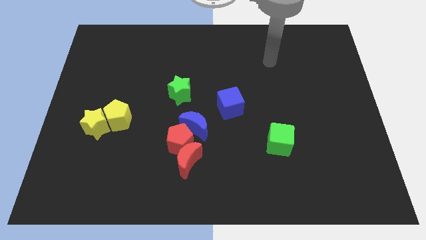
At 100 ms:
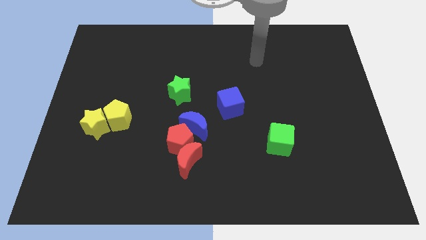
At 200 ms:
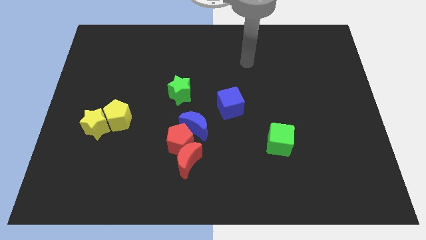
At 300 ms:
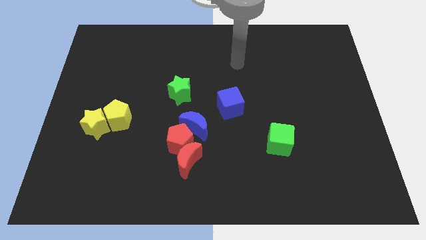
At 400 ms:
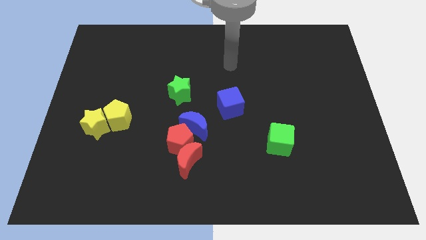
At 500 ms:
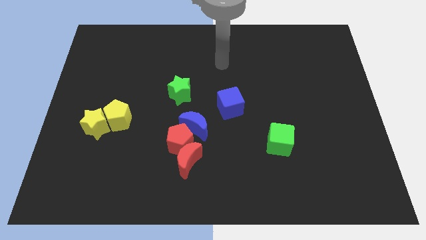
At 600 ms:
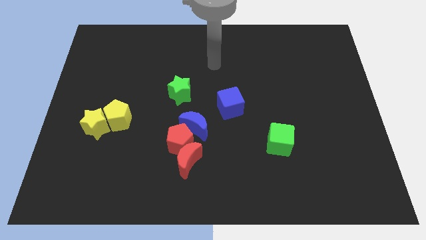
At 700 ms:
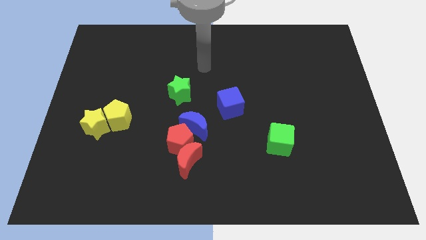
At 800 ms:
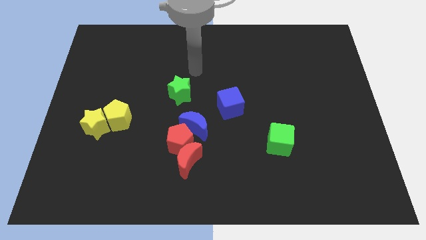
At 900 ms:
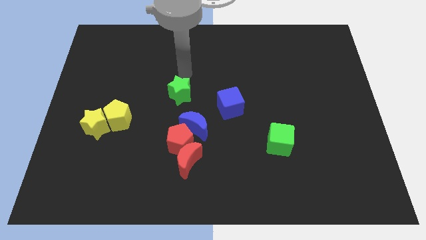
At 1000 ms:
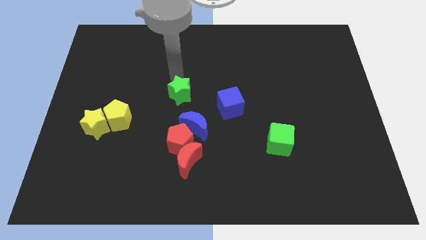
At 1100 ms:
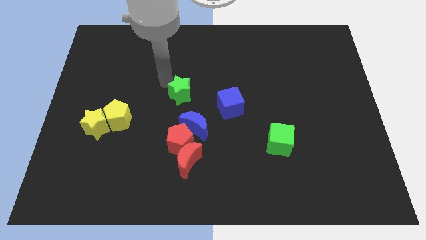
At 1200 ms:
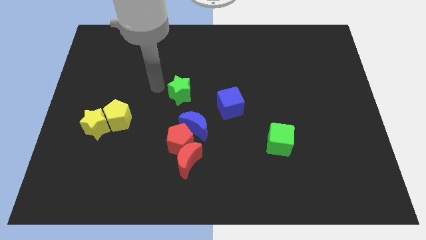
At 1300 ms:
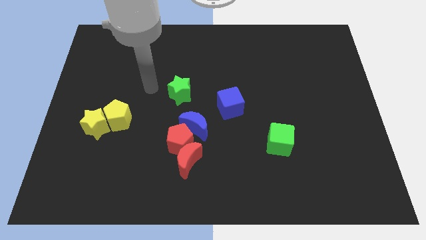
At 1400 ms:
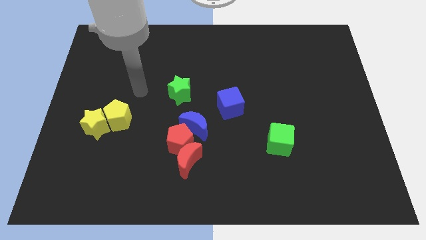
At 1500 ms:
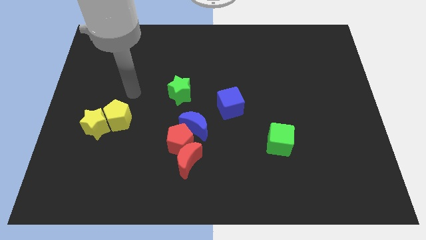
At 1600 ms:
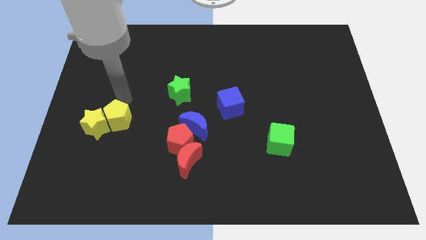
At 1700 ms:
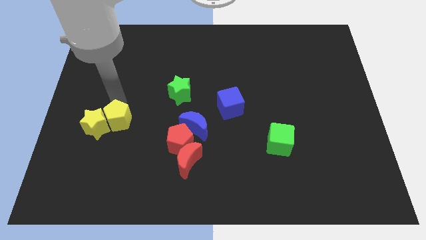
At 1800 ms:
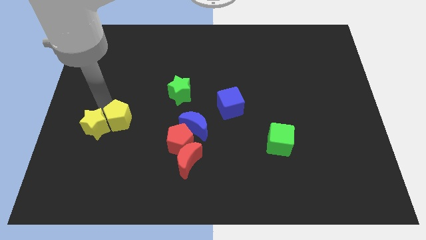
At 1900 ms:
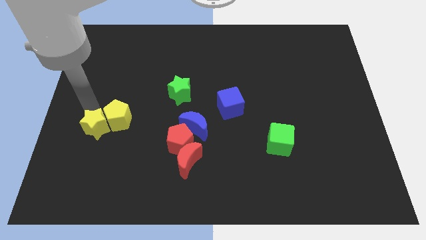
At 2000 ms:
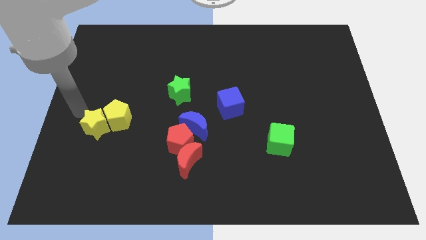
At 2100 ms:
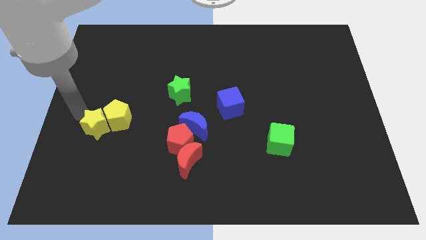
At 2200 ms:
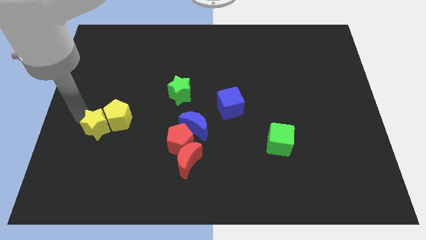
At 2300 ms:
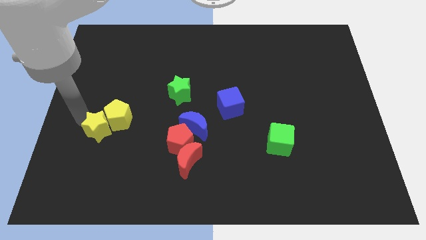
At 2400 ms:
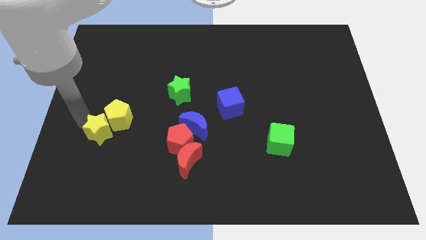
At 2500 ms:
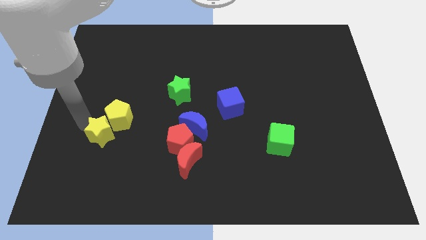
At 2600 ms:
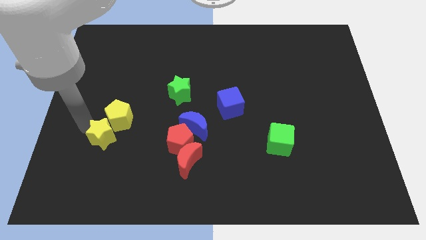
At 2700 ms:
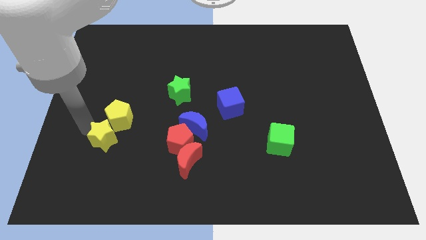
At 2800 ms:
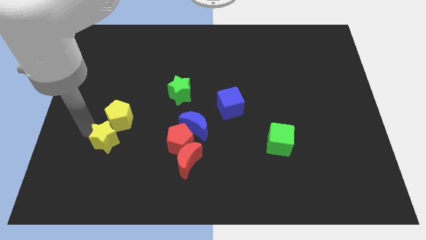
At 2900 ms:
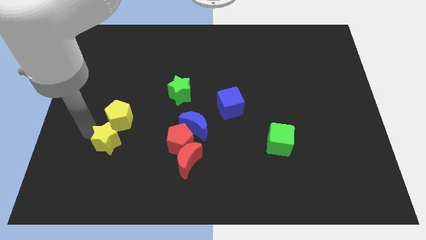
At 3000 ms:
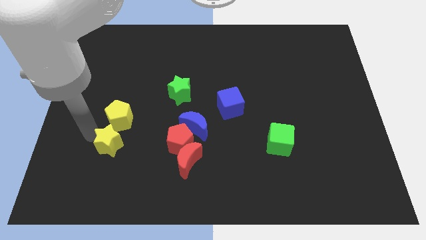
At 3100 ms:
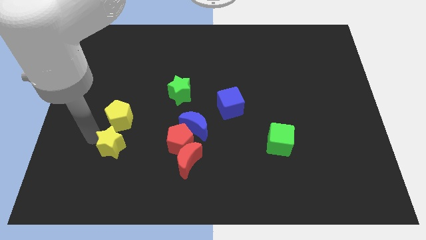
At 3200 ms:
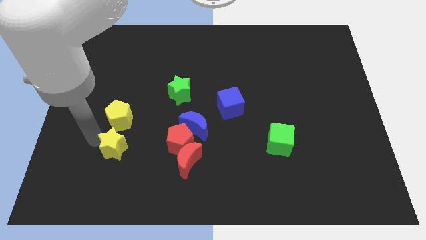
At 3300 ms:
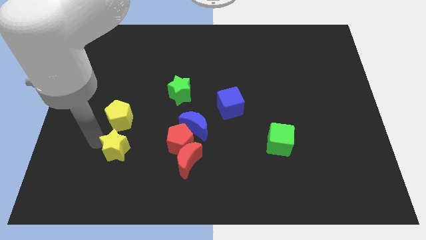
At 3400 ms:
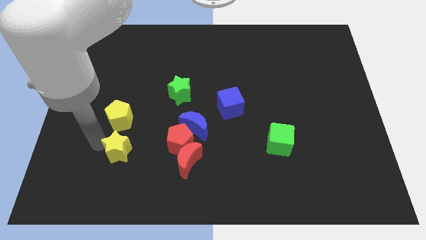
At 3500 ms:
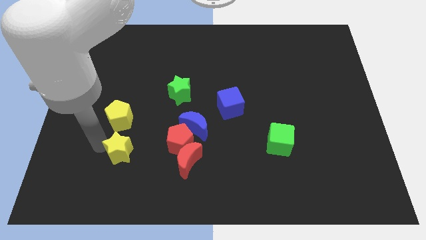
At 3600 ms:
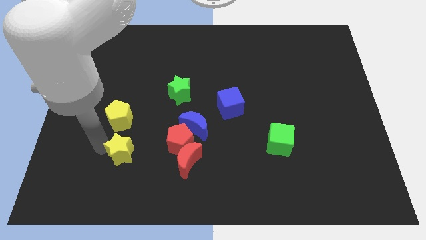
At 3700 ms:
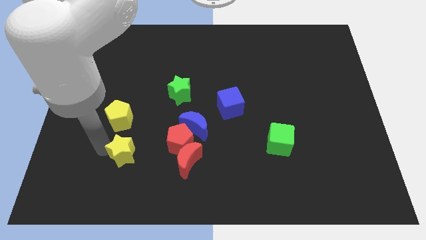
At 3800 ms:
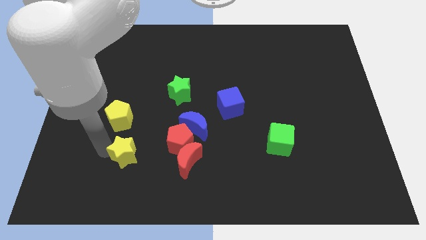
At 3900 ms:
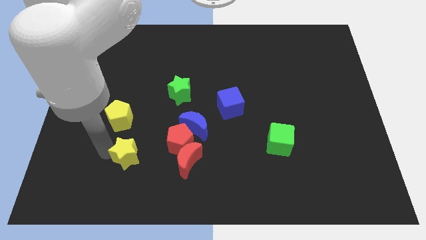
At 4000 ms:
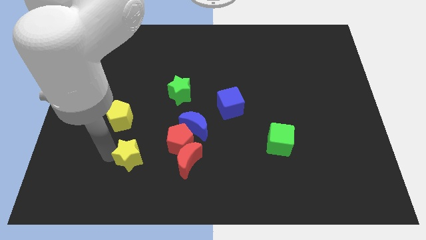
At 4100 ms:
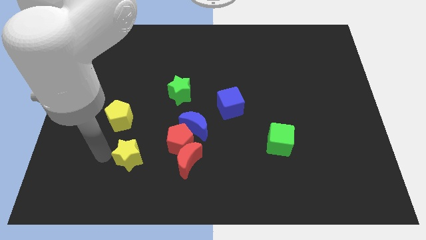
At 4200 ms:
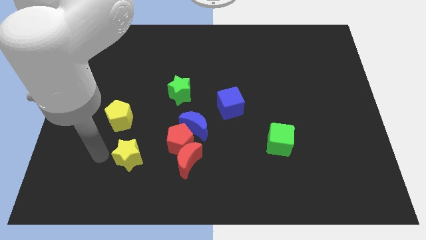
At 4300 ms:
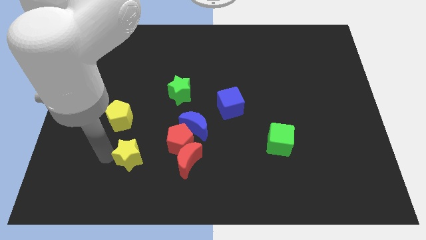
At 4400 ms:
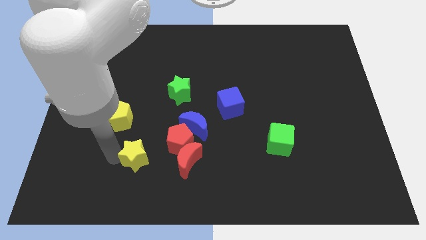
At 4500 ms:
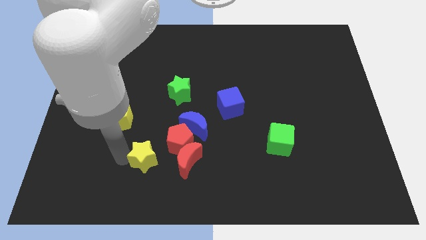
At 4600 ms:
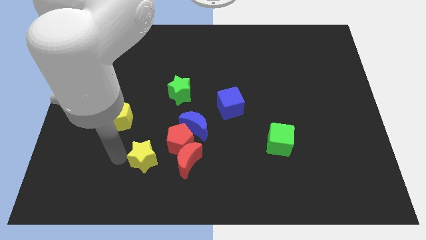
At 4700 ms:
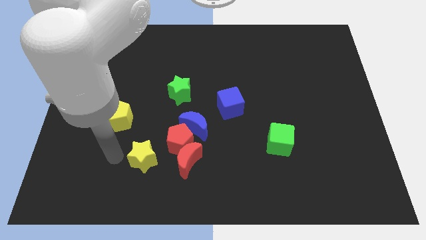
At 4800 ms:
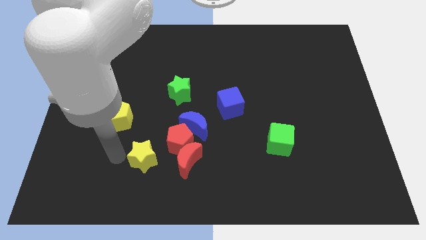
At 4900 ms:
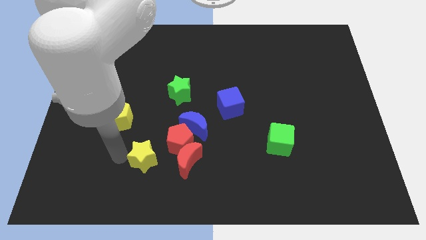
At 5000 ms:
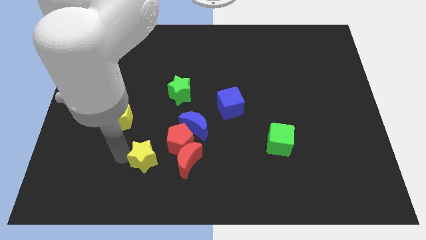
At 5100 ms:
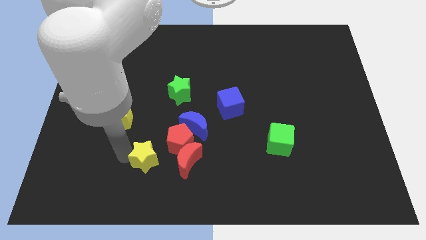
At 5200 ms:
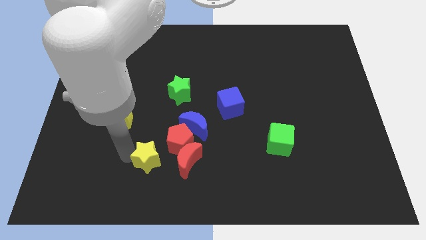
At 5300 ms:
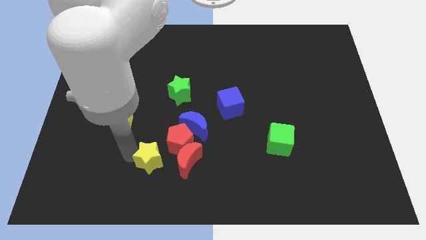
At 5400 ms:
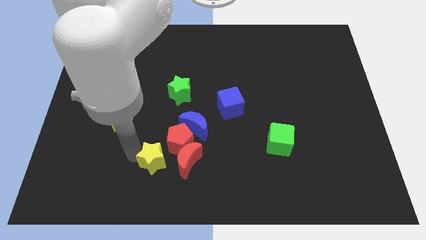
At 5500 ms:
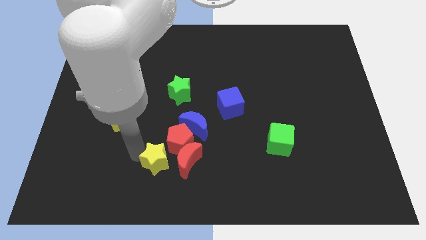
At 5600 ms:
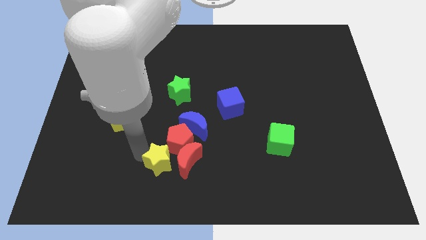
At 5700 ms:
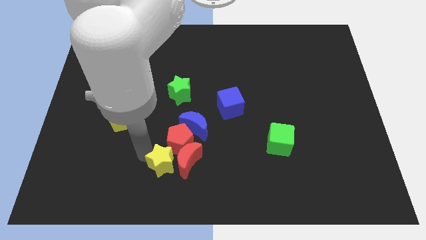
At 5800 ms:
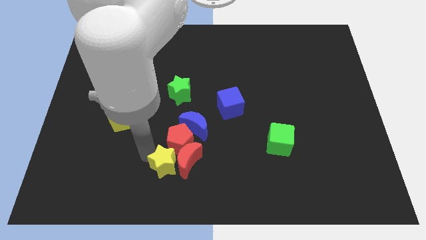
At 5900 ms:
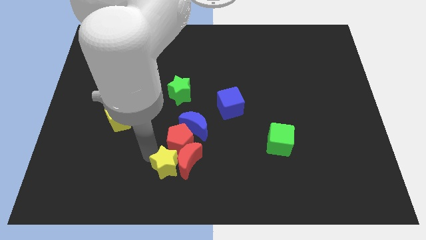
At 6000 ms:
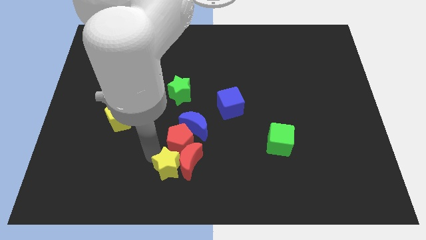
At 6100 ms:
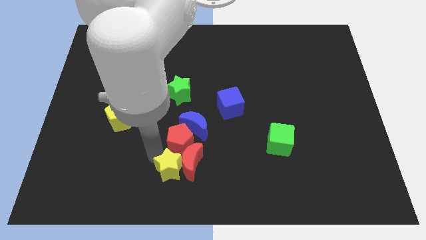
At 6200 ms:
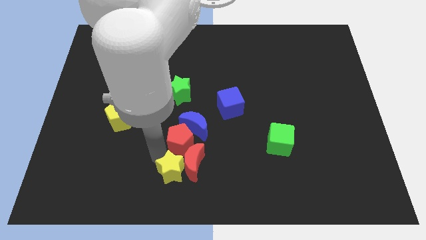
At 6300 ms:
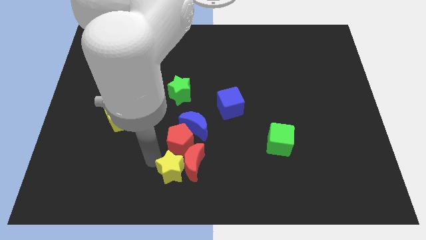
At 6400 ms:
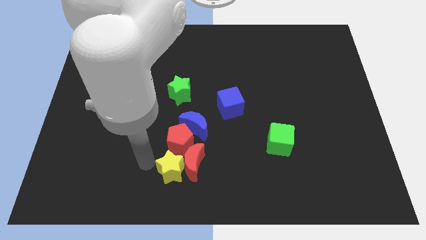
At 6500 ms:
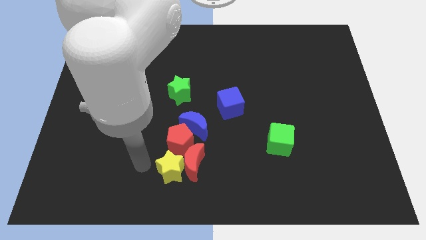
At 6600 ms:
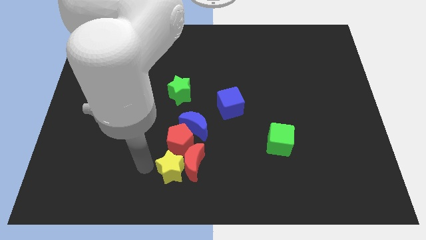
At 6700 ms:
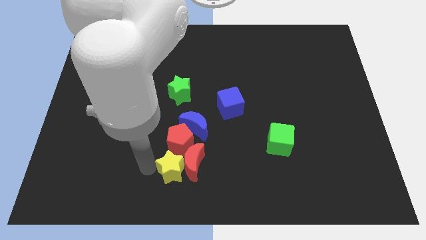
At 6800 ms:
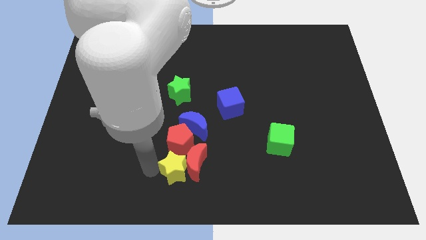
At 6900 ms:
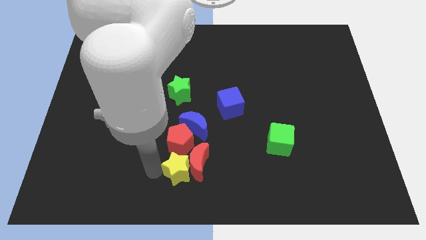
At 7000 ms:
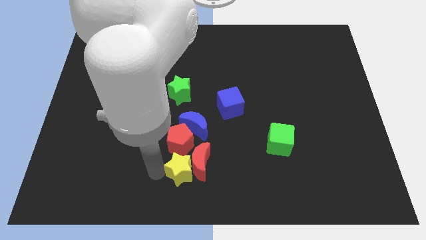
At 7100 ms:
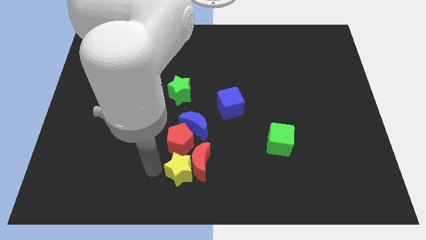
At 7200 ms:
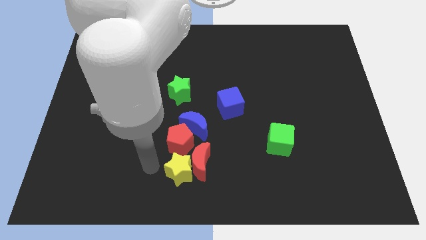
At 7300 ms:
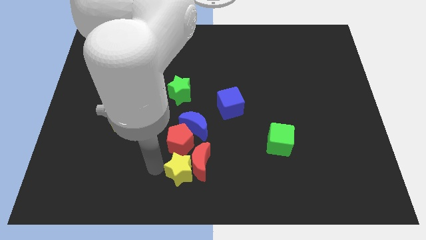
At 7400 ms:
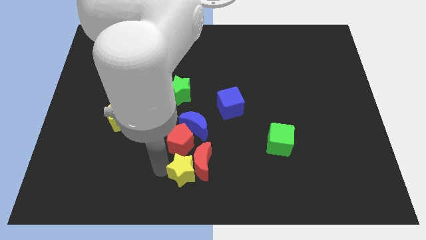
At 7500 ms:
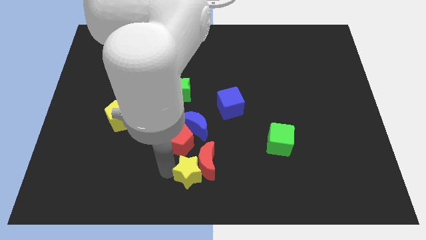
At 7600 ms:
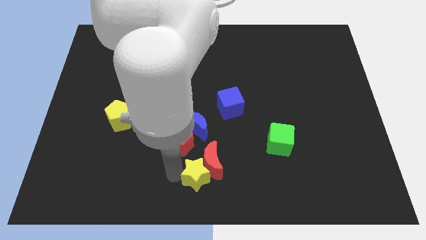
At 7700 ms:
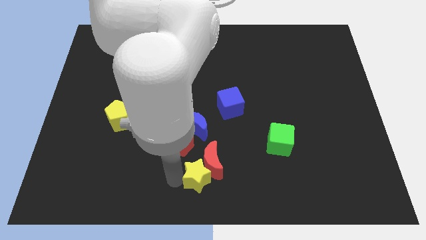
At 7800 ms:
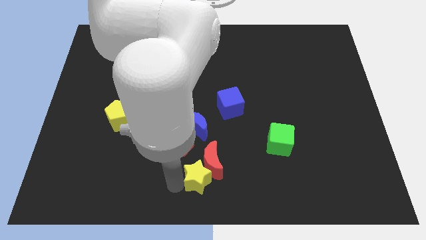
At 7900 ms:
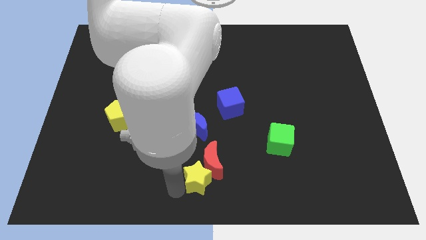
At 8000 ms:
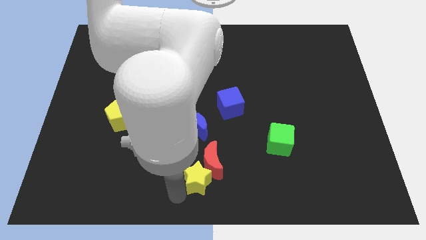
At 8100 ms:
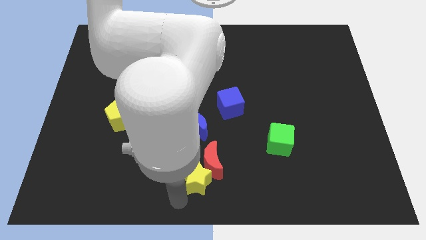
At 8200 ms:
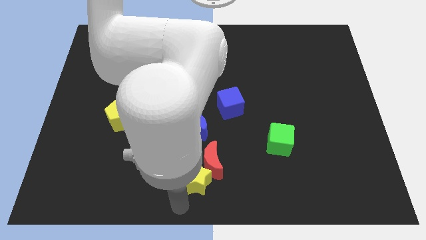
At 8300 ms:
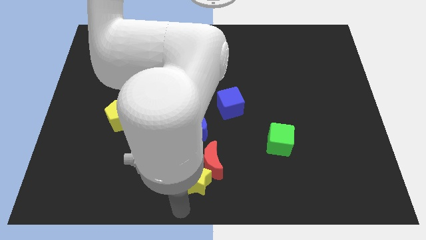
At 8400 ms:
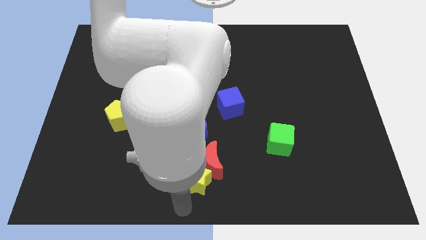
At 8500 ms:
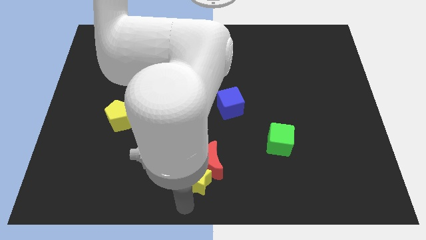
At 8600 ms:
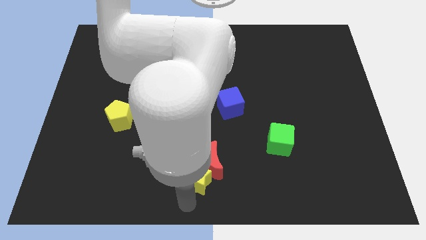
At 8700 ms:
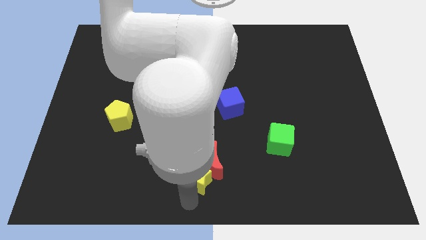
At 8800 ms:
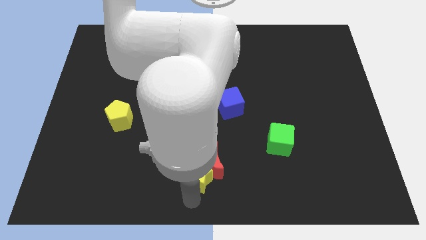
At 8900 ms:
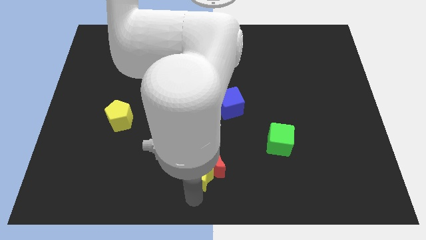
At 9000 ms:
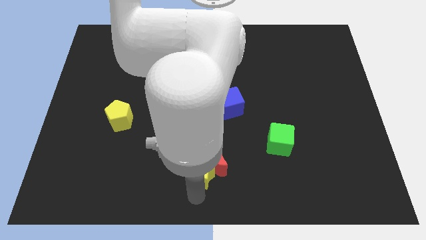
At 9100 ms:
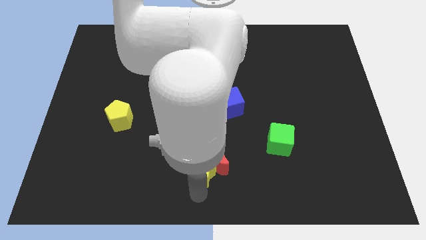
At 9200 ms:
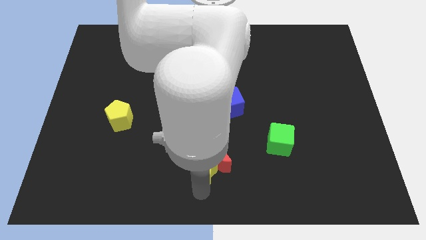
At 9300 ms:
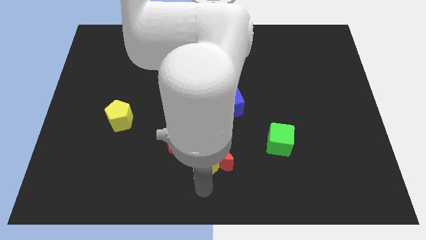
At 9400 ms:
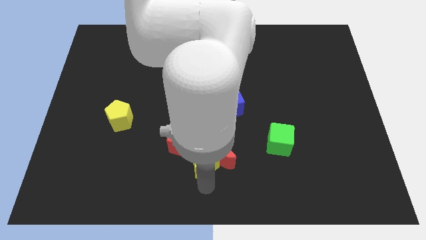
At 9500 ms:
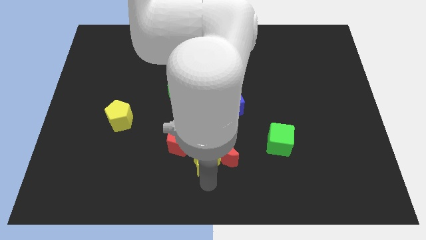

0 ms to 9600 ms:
put the yellow star to the bottom right of the blue moon
